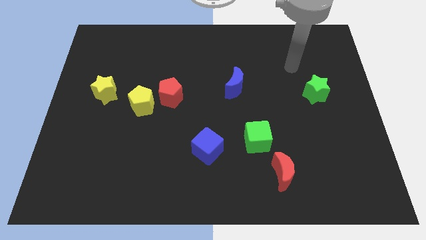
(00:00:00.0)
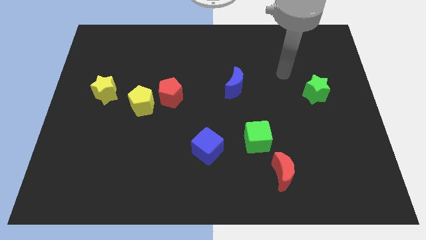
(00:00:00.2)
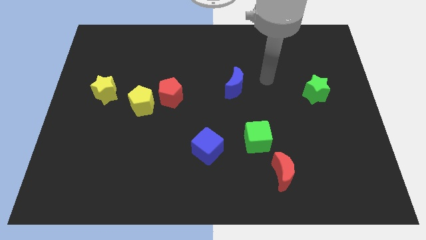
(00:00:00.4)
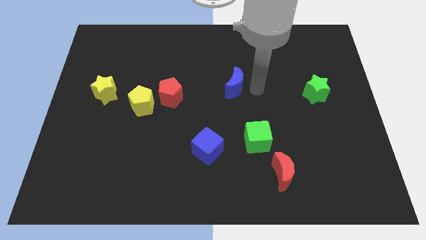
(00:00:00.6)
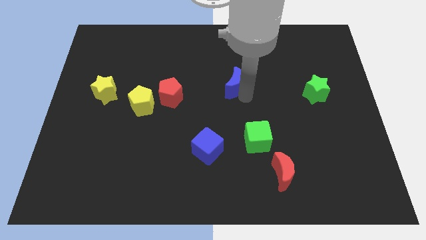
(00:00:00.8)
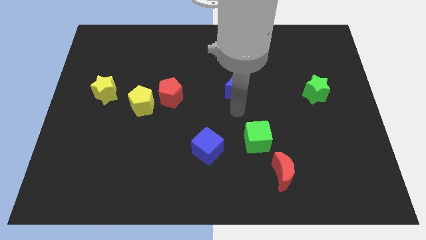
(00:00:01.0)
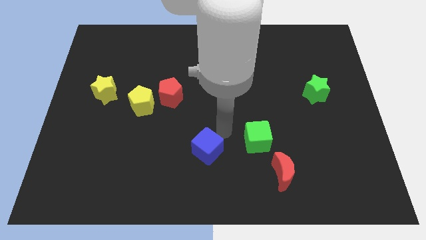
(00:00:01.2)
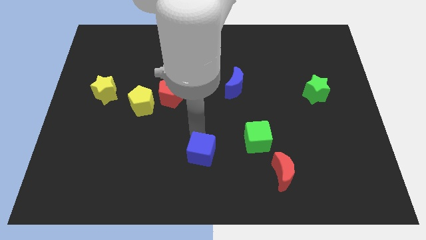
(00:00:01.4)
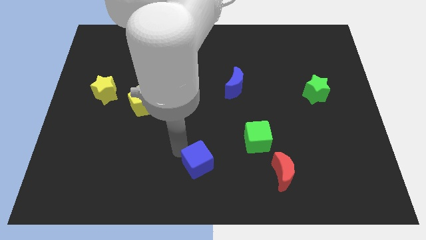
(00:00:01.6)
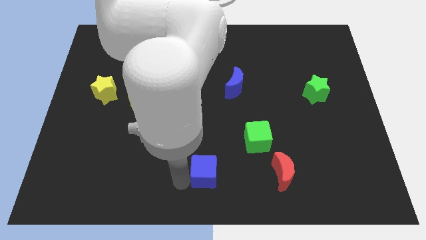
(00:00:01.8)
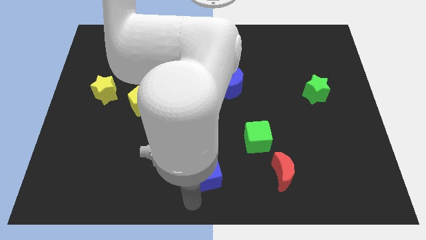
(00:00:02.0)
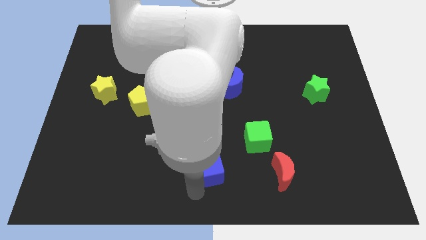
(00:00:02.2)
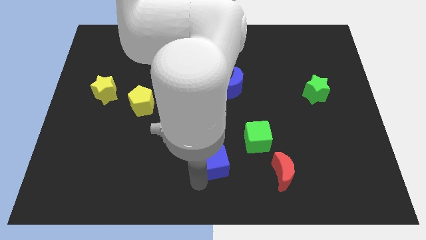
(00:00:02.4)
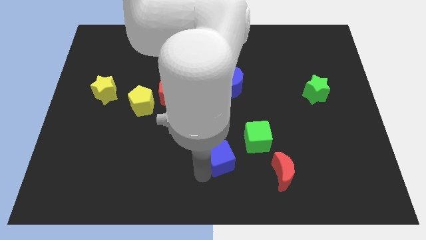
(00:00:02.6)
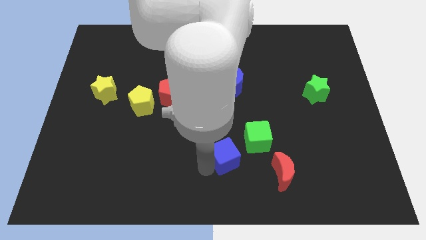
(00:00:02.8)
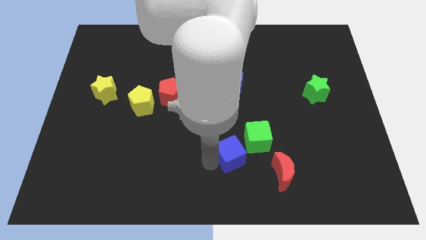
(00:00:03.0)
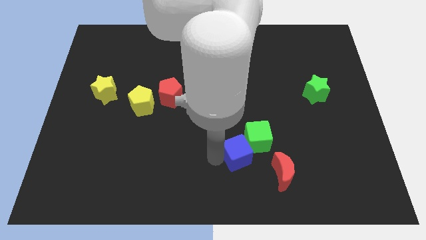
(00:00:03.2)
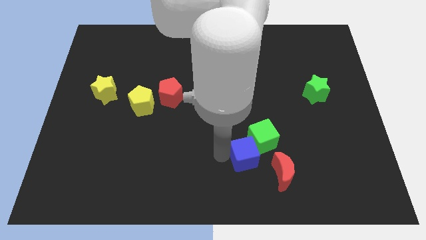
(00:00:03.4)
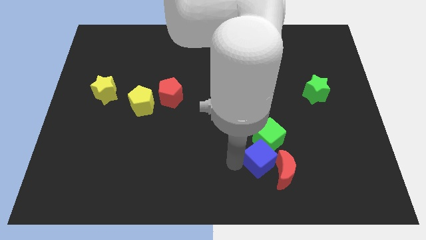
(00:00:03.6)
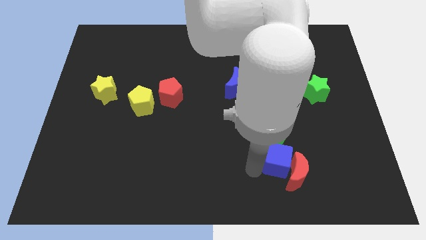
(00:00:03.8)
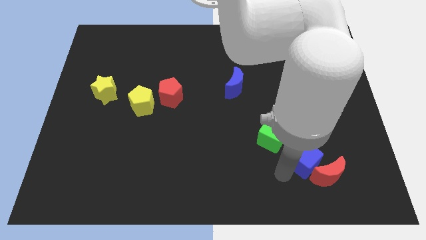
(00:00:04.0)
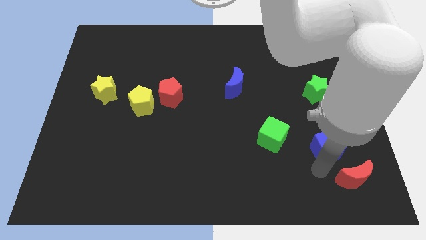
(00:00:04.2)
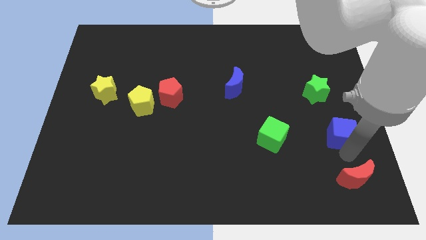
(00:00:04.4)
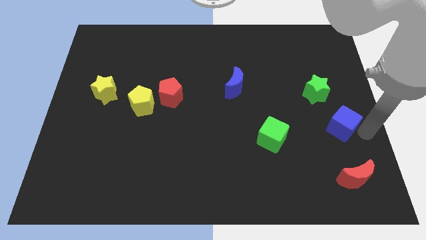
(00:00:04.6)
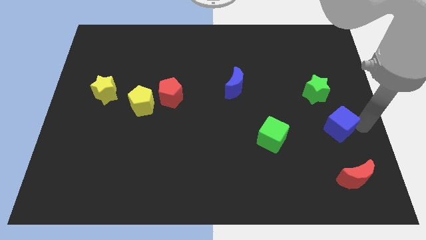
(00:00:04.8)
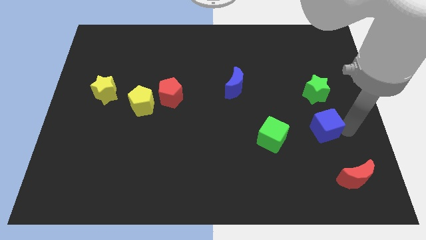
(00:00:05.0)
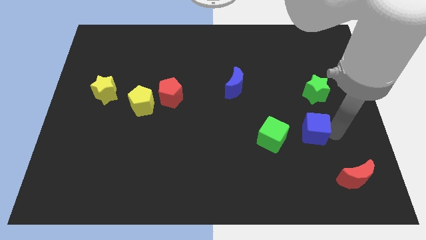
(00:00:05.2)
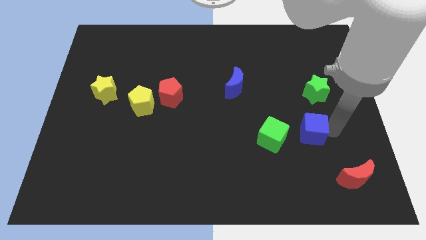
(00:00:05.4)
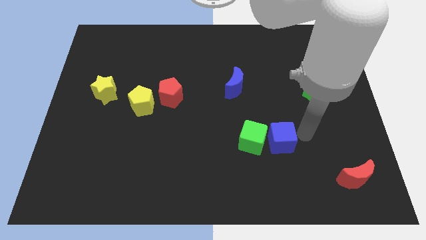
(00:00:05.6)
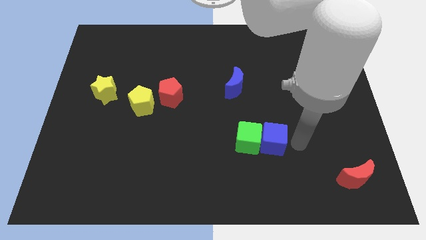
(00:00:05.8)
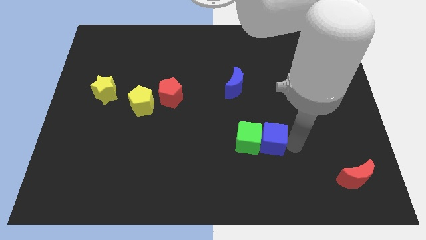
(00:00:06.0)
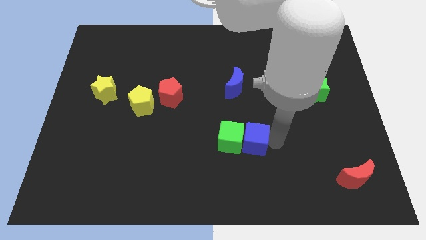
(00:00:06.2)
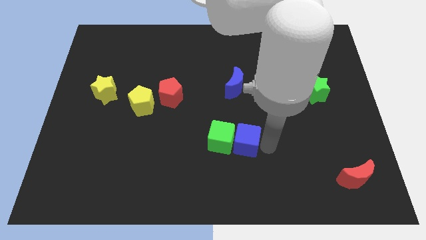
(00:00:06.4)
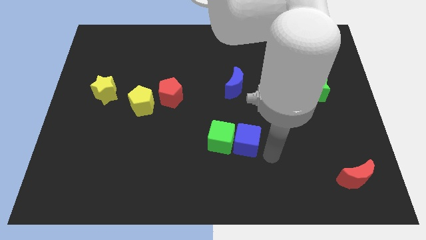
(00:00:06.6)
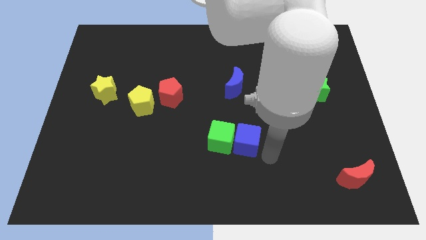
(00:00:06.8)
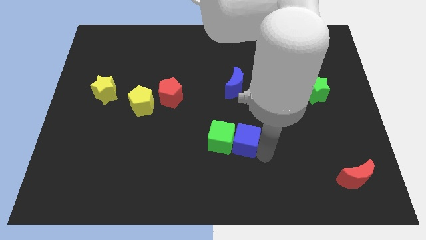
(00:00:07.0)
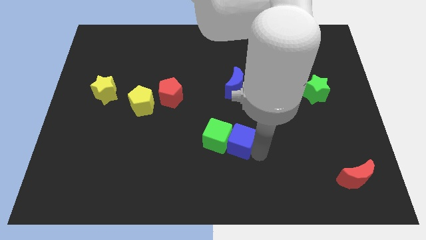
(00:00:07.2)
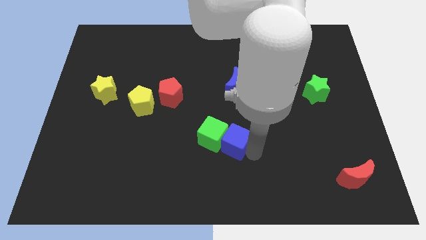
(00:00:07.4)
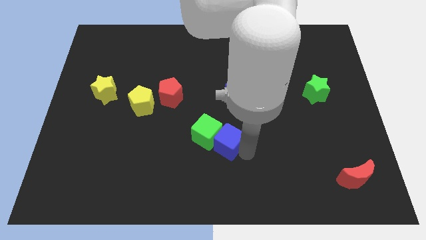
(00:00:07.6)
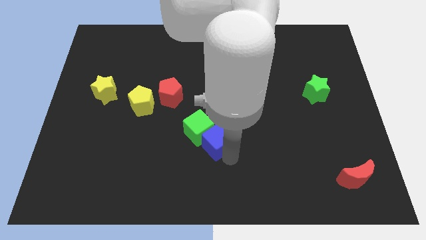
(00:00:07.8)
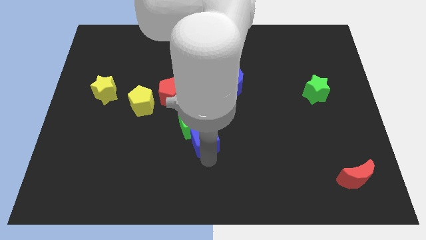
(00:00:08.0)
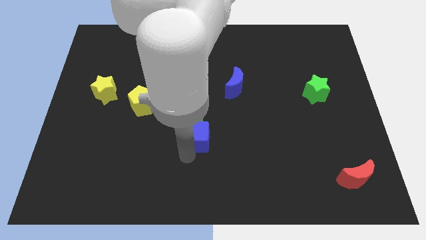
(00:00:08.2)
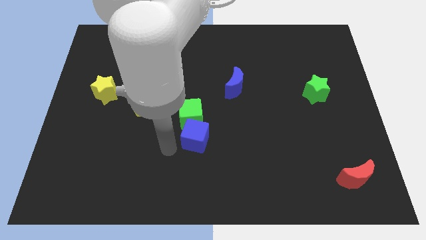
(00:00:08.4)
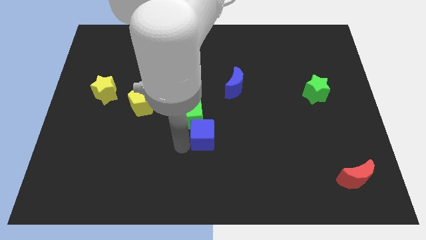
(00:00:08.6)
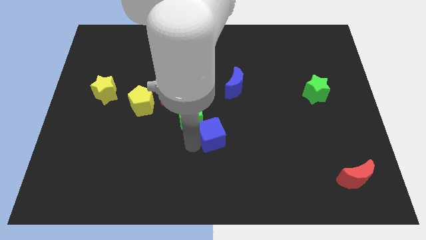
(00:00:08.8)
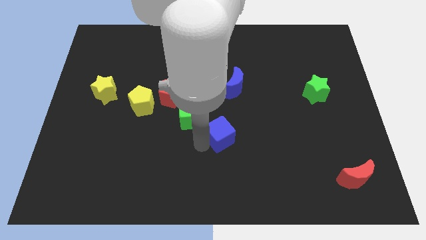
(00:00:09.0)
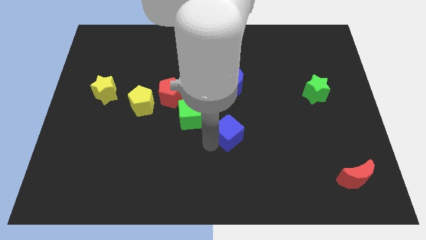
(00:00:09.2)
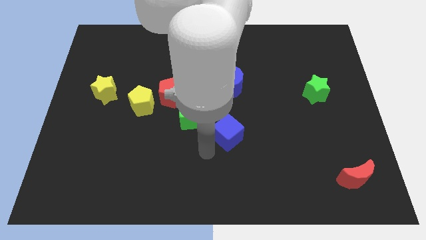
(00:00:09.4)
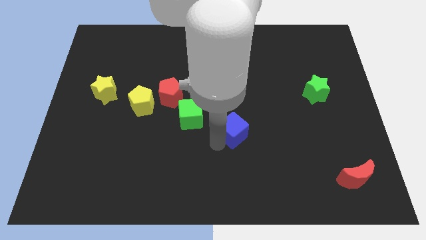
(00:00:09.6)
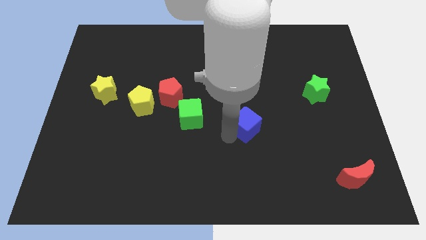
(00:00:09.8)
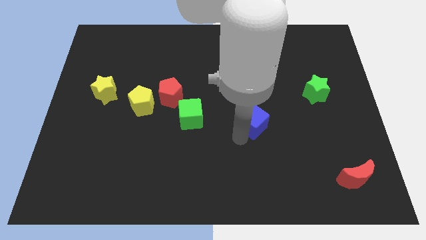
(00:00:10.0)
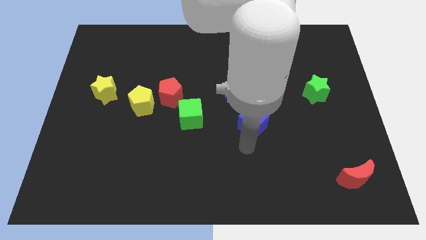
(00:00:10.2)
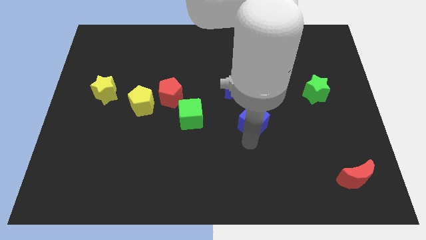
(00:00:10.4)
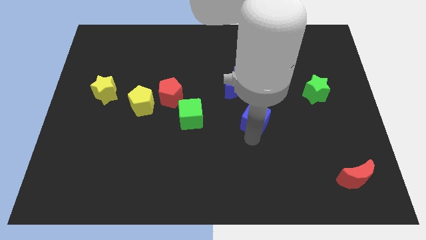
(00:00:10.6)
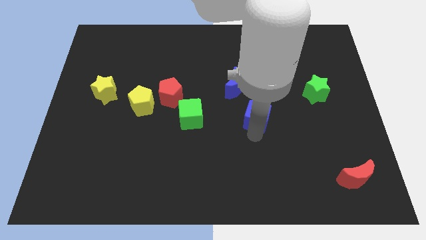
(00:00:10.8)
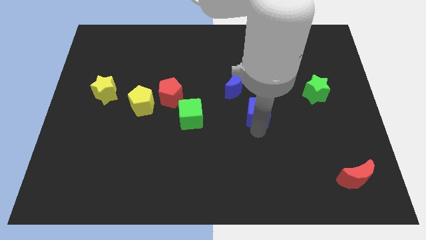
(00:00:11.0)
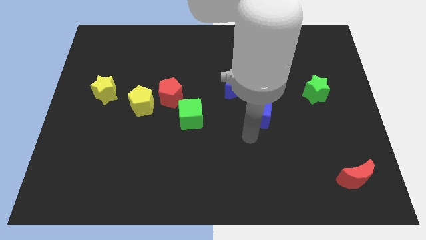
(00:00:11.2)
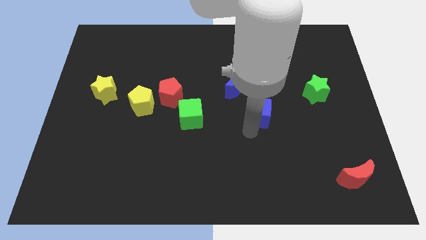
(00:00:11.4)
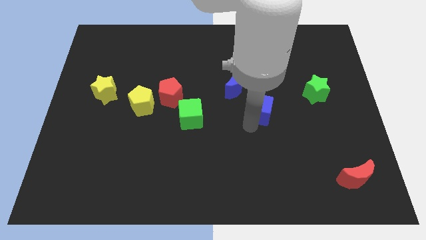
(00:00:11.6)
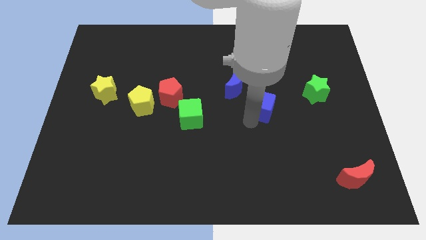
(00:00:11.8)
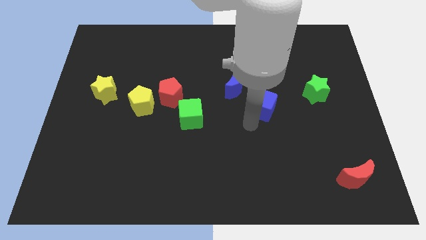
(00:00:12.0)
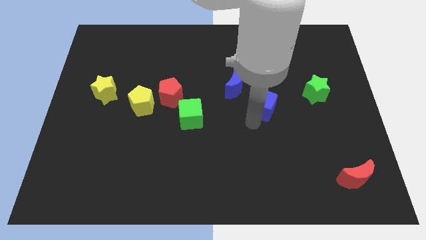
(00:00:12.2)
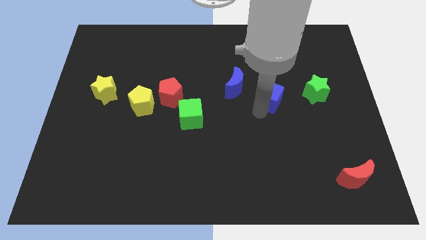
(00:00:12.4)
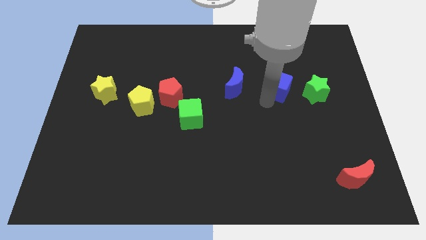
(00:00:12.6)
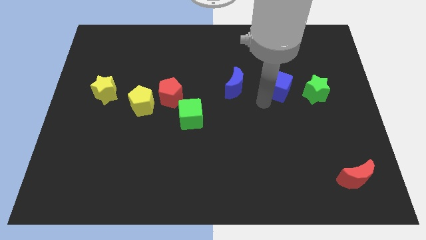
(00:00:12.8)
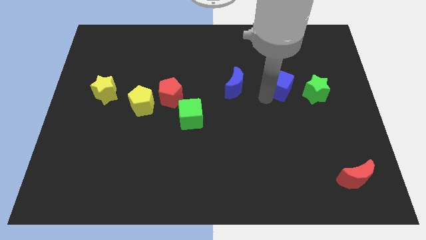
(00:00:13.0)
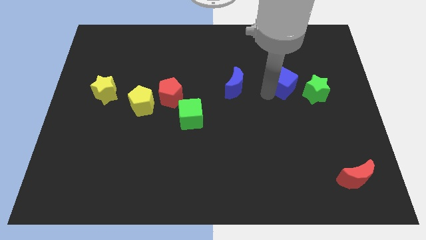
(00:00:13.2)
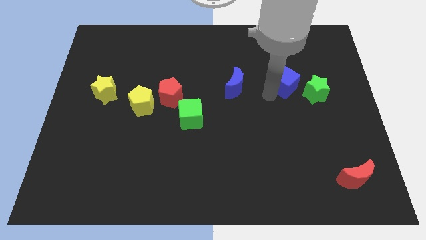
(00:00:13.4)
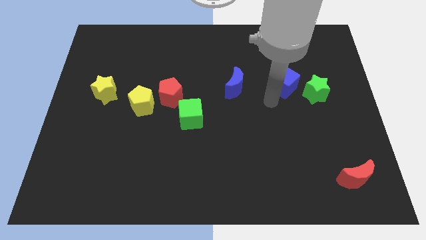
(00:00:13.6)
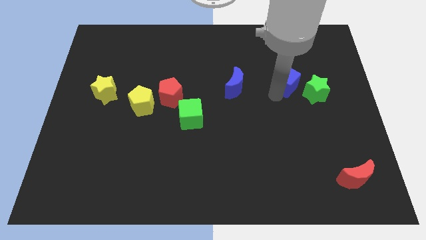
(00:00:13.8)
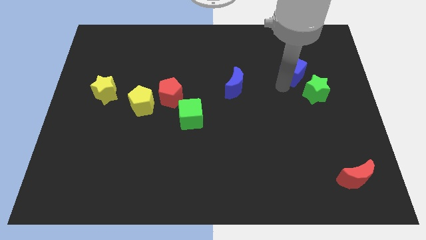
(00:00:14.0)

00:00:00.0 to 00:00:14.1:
move the blue cube to the top side of the green star
